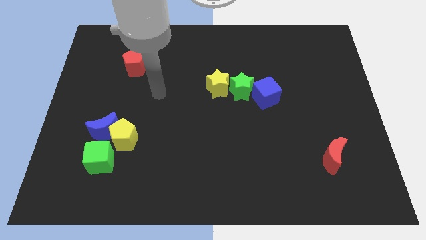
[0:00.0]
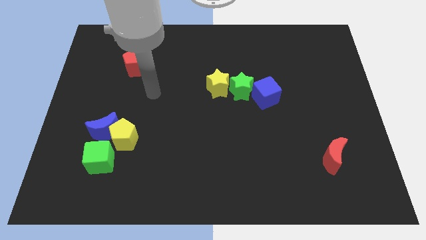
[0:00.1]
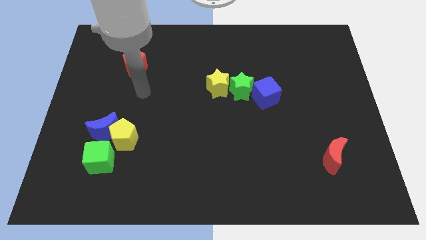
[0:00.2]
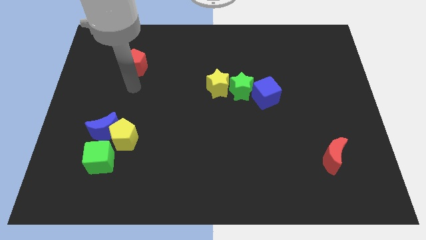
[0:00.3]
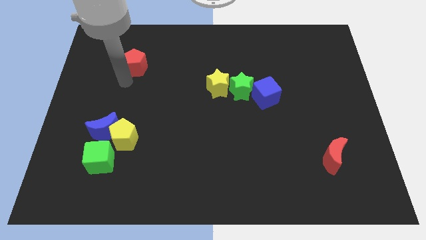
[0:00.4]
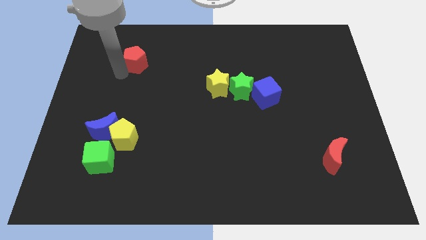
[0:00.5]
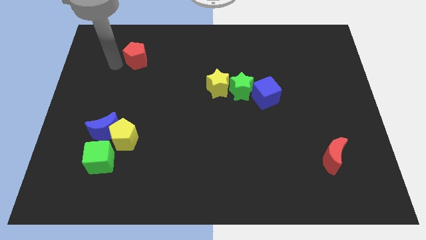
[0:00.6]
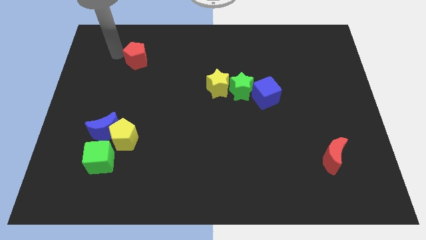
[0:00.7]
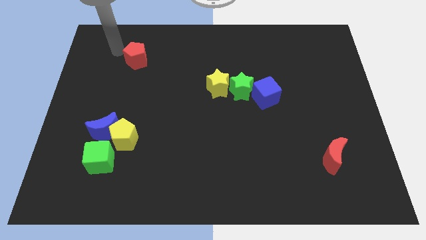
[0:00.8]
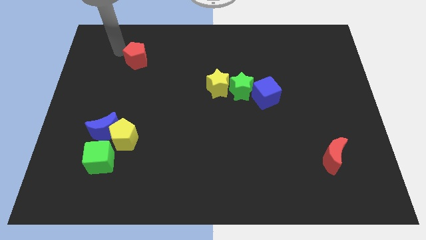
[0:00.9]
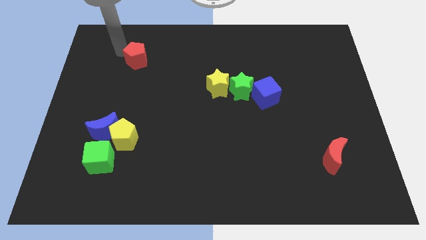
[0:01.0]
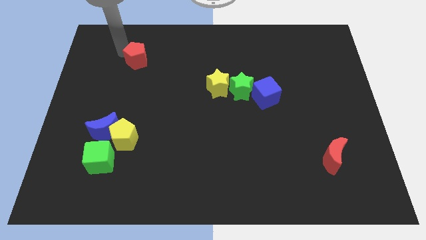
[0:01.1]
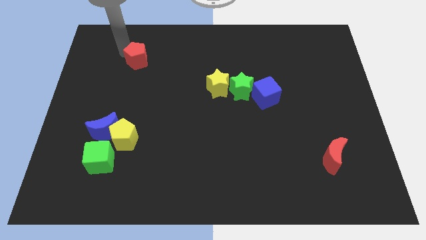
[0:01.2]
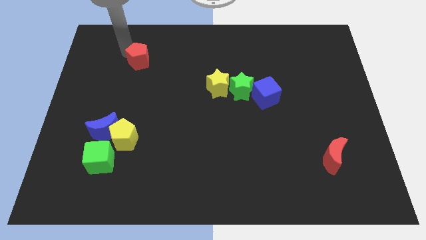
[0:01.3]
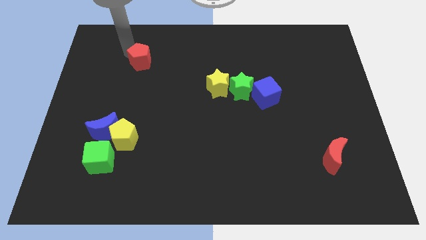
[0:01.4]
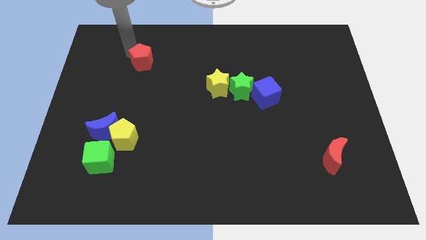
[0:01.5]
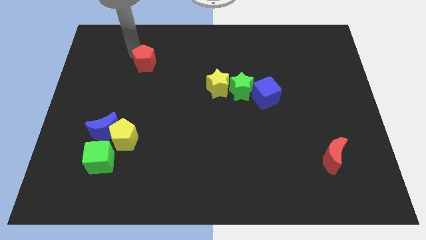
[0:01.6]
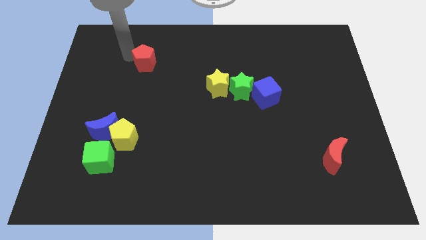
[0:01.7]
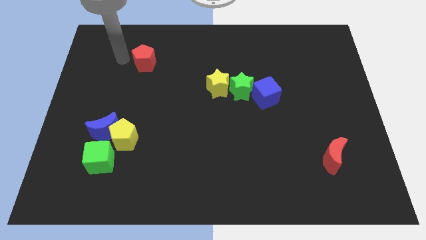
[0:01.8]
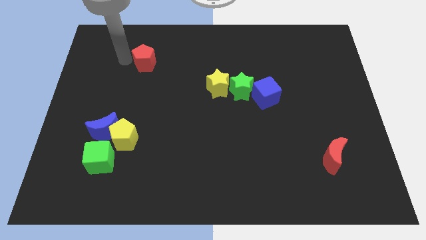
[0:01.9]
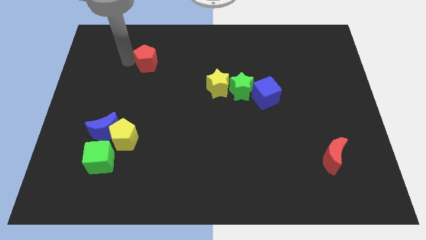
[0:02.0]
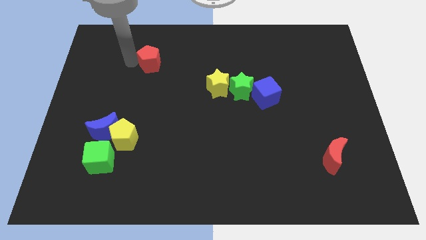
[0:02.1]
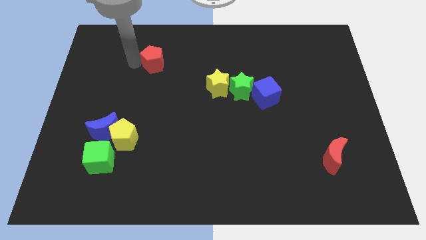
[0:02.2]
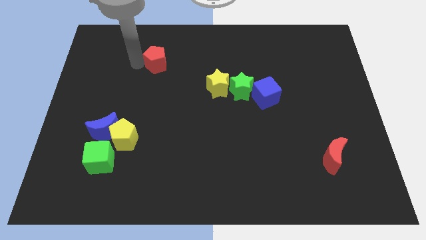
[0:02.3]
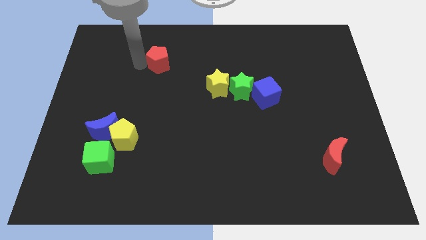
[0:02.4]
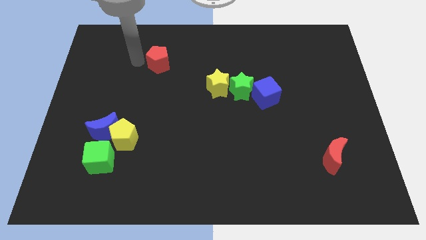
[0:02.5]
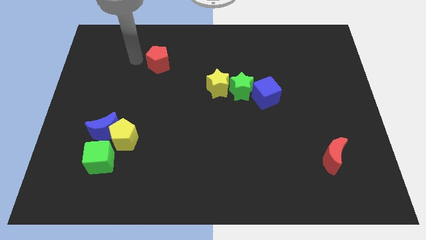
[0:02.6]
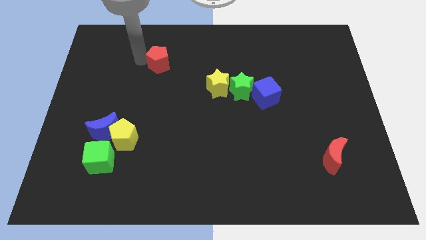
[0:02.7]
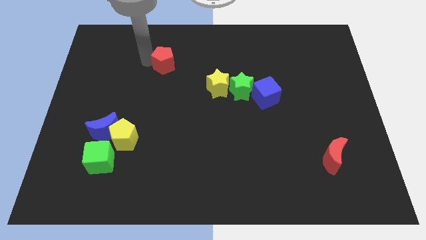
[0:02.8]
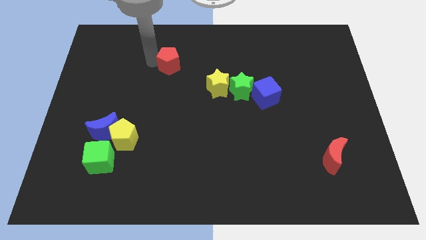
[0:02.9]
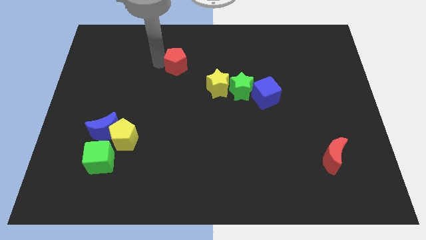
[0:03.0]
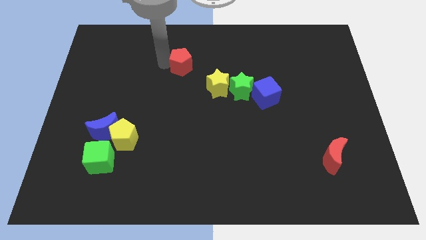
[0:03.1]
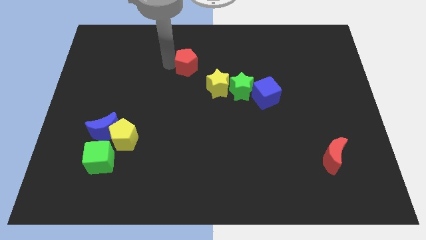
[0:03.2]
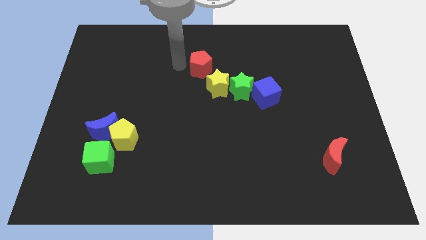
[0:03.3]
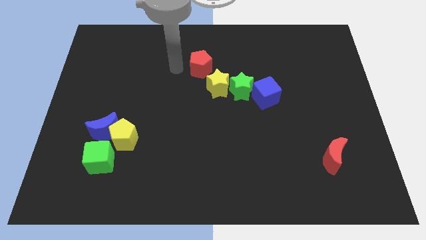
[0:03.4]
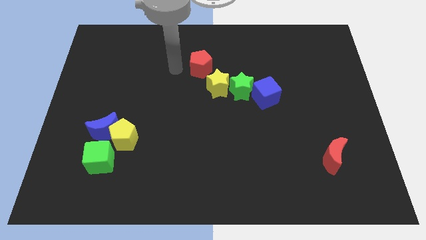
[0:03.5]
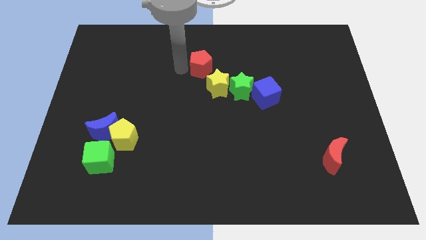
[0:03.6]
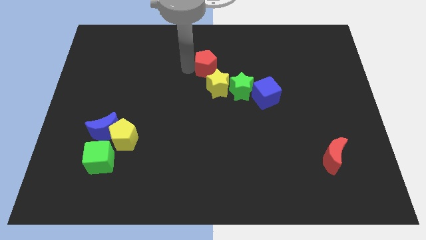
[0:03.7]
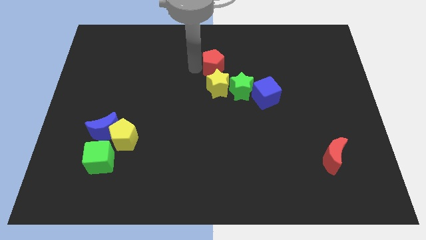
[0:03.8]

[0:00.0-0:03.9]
push the red pentagon to the right

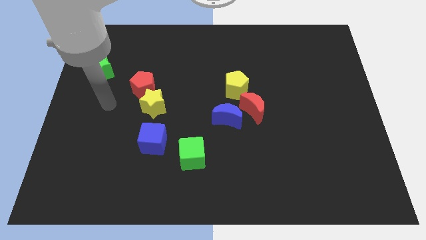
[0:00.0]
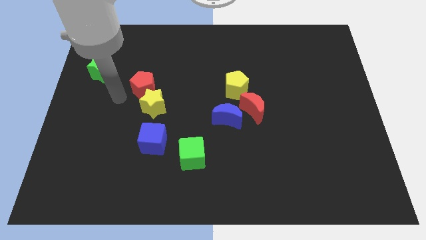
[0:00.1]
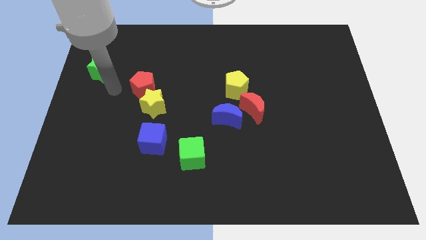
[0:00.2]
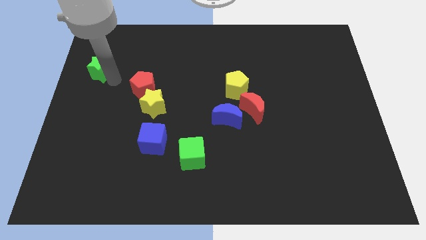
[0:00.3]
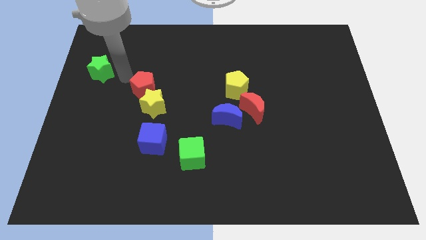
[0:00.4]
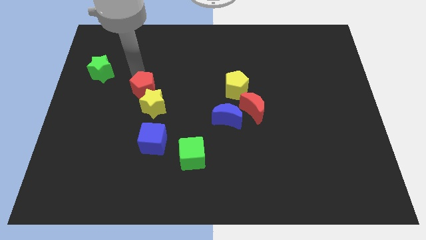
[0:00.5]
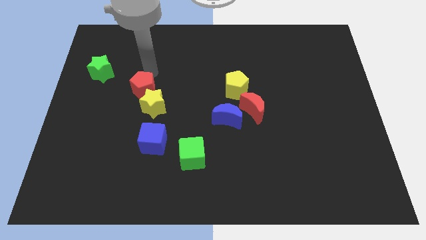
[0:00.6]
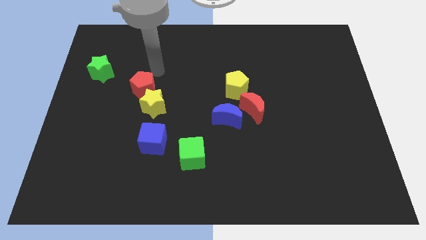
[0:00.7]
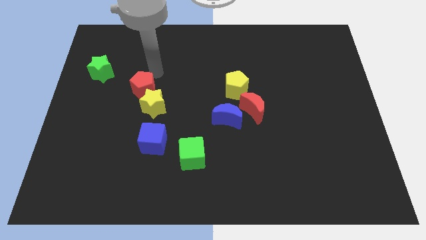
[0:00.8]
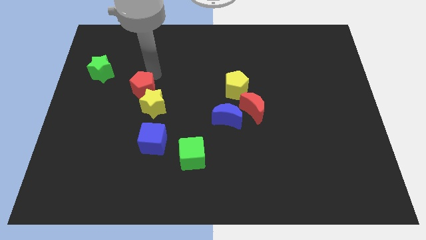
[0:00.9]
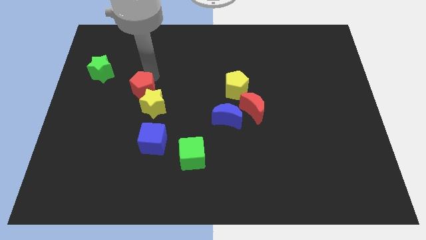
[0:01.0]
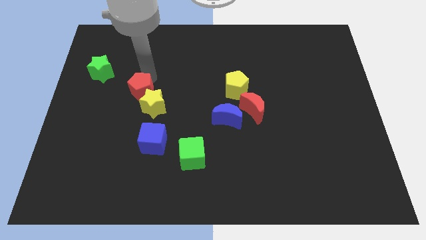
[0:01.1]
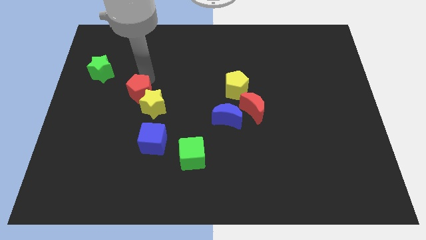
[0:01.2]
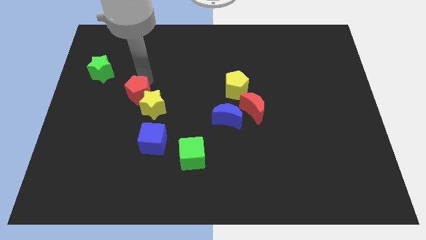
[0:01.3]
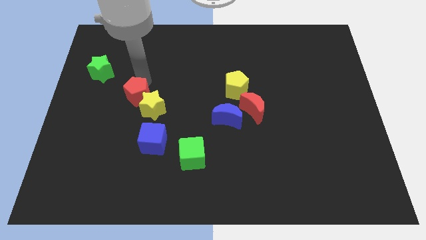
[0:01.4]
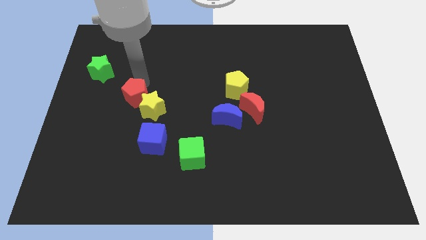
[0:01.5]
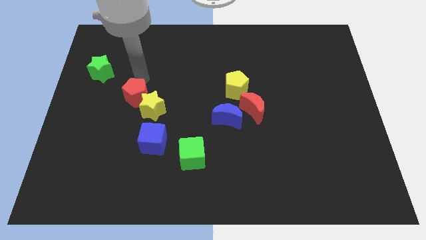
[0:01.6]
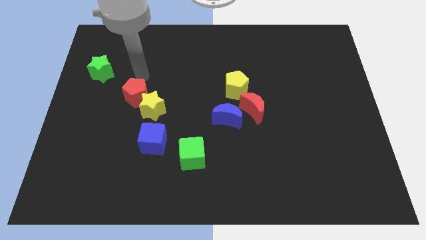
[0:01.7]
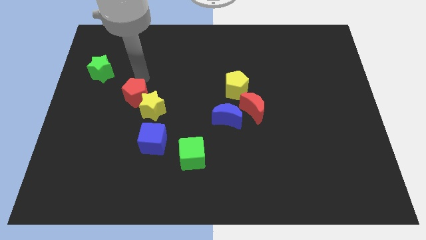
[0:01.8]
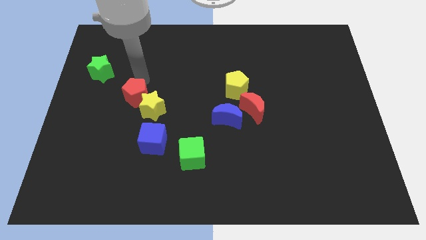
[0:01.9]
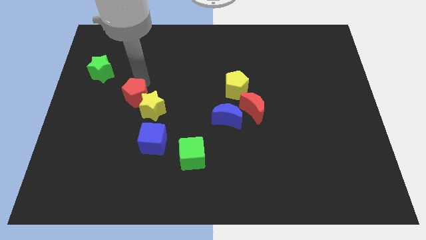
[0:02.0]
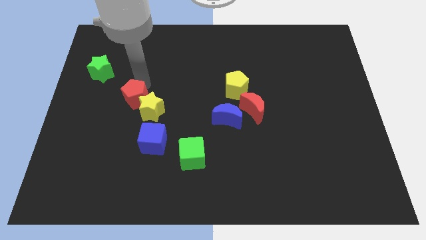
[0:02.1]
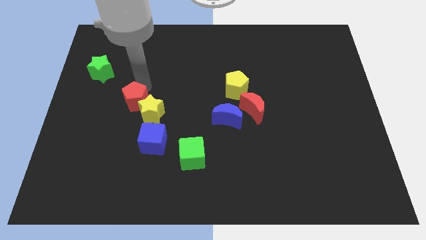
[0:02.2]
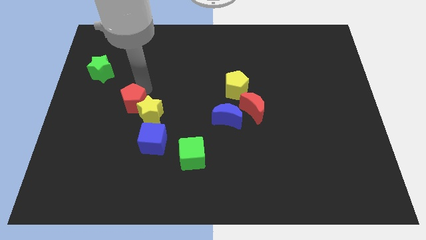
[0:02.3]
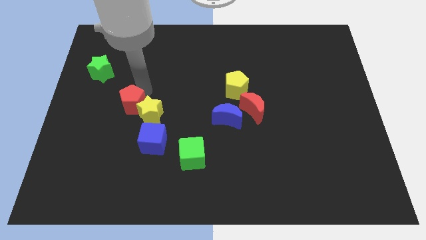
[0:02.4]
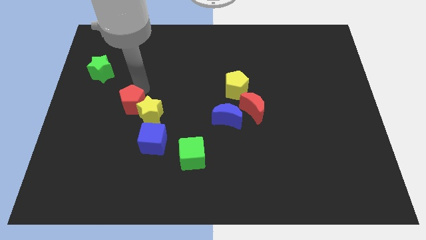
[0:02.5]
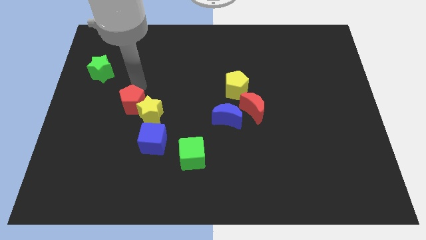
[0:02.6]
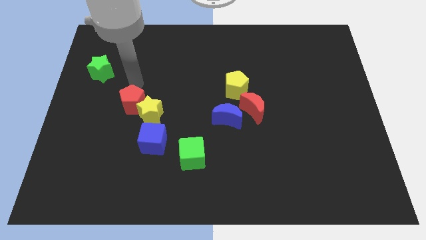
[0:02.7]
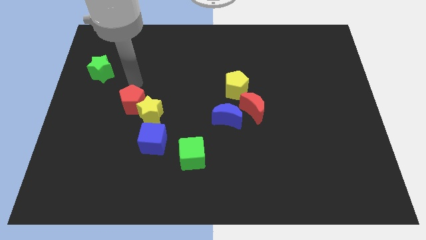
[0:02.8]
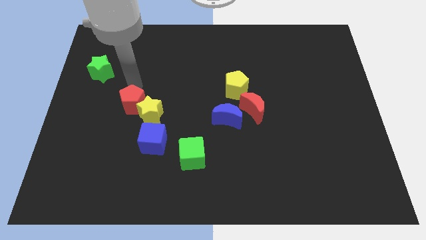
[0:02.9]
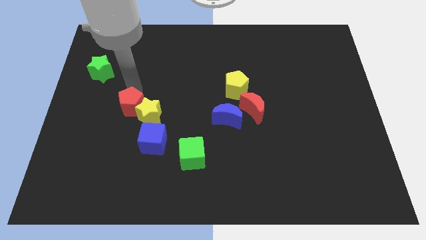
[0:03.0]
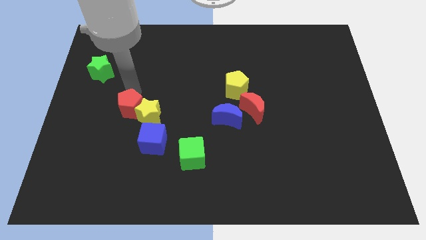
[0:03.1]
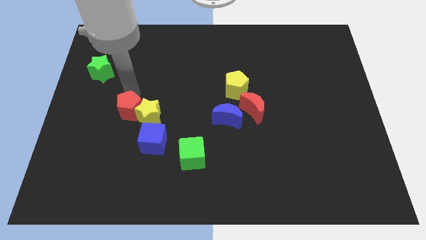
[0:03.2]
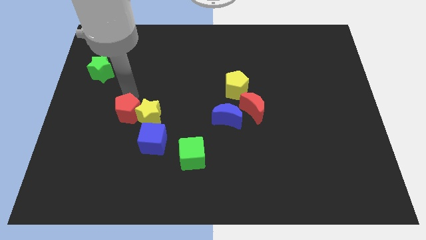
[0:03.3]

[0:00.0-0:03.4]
move the red pentagon down a bit

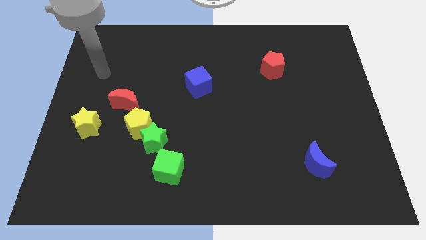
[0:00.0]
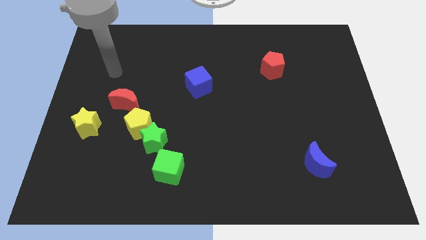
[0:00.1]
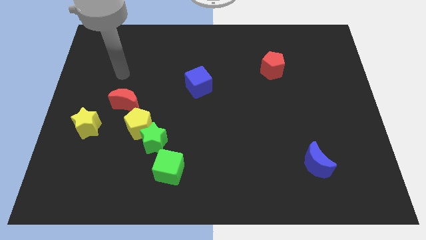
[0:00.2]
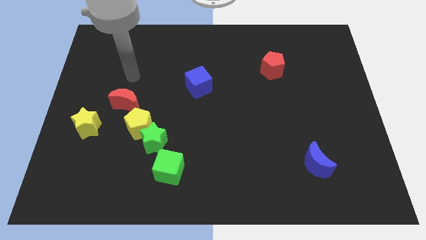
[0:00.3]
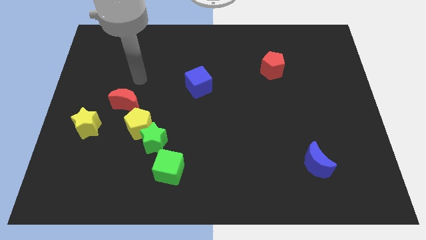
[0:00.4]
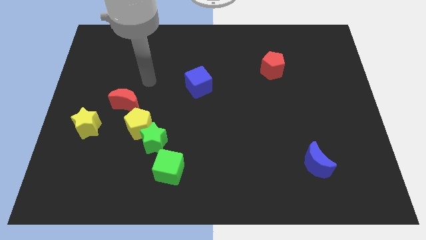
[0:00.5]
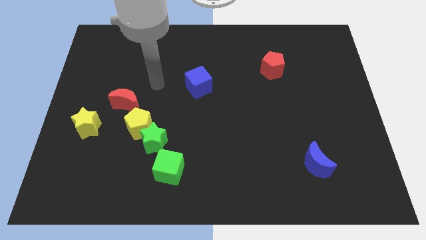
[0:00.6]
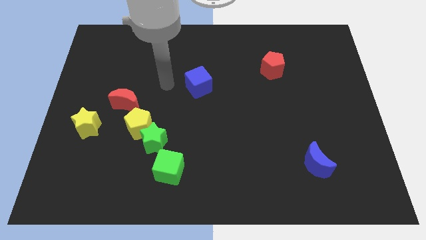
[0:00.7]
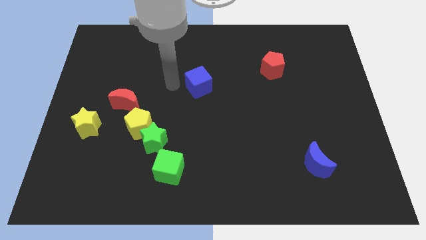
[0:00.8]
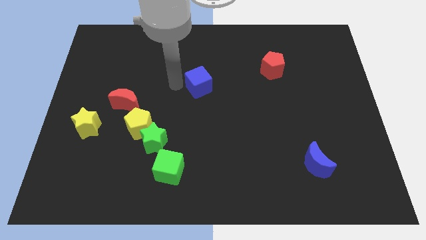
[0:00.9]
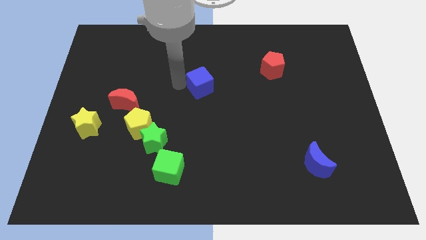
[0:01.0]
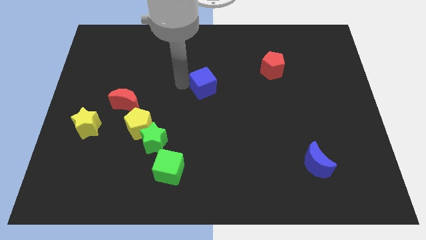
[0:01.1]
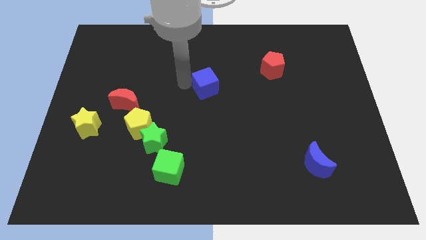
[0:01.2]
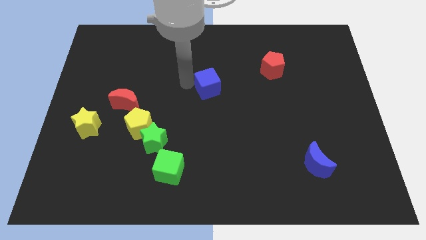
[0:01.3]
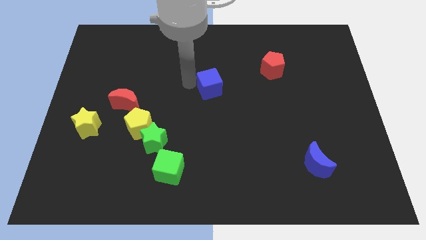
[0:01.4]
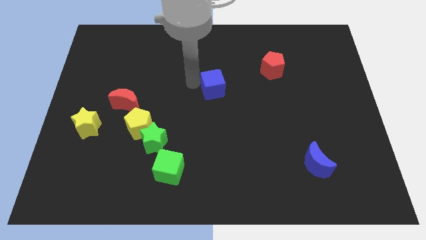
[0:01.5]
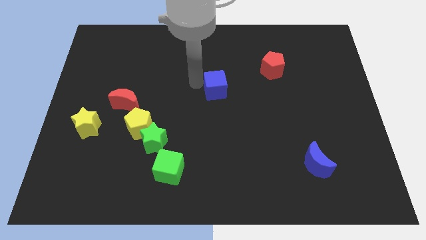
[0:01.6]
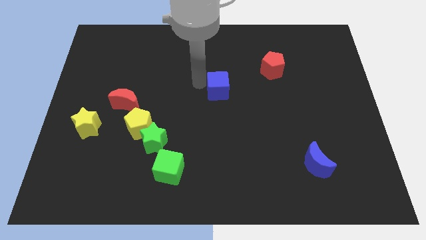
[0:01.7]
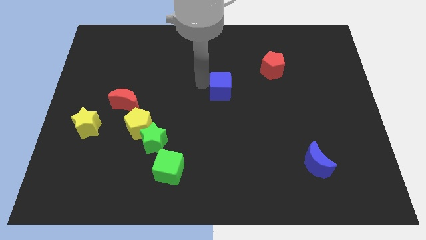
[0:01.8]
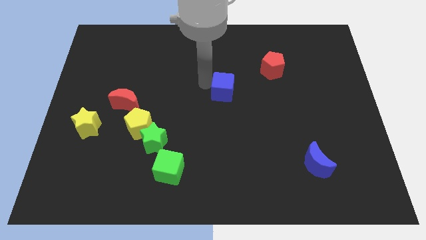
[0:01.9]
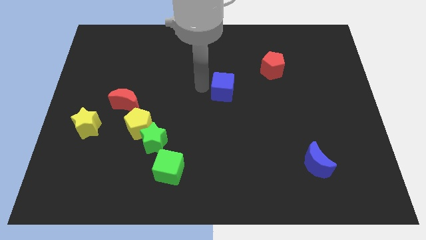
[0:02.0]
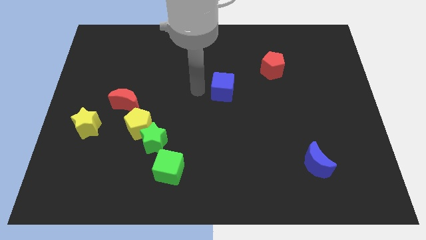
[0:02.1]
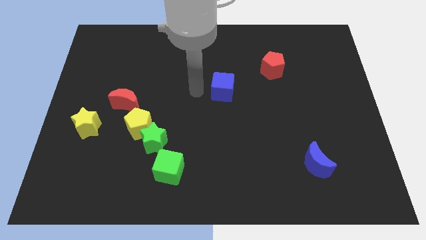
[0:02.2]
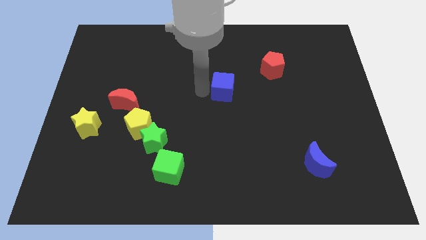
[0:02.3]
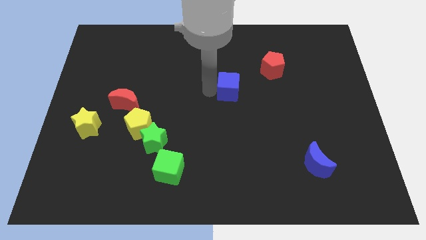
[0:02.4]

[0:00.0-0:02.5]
slide the blue cube to the right somewhat
